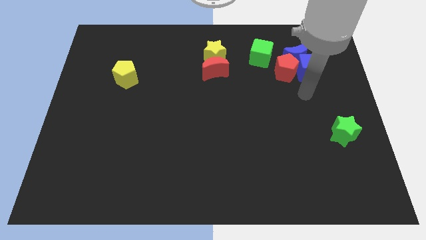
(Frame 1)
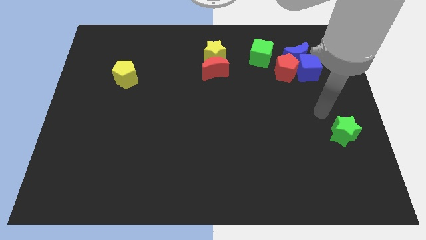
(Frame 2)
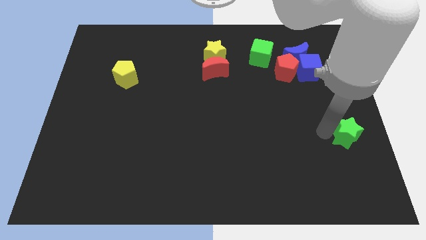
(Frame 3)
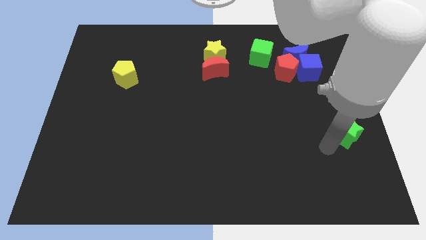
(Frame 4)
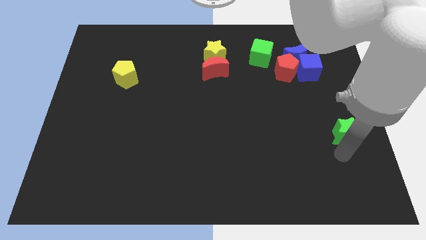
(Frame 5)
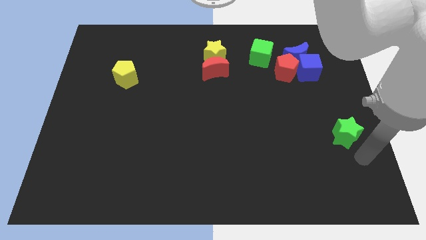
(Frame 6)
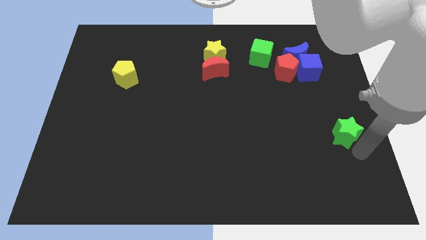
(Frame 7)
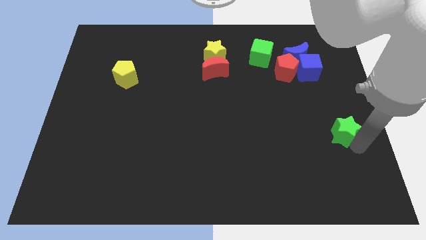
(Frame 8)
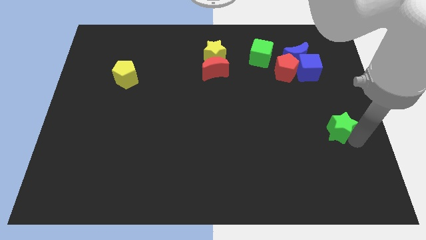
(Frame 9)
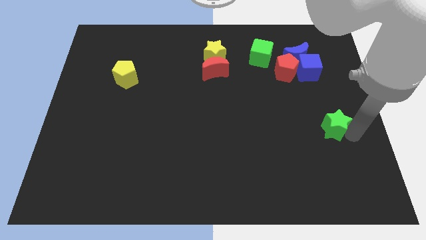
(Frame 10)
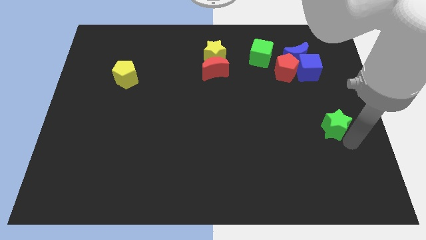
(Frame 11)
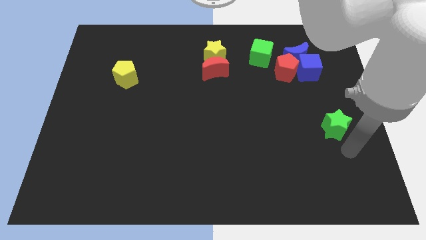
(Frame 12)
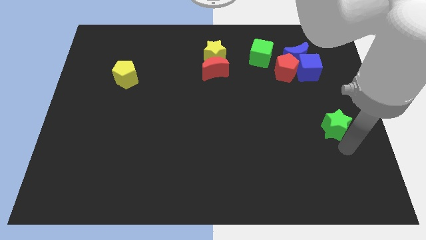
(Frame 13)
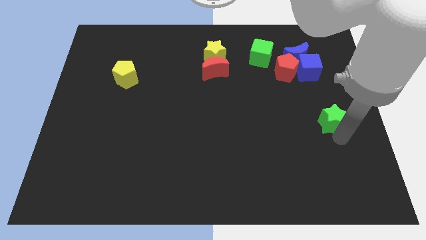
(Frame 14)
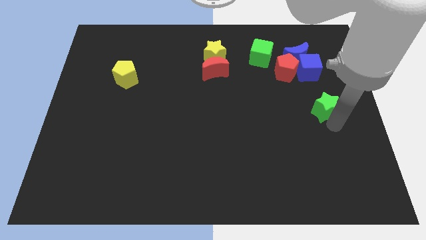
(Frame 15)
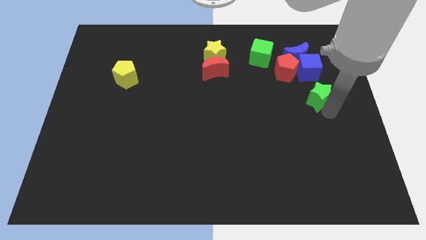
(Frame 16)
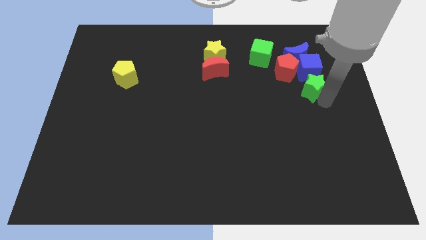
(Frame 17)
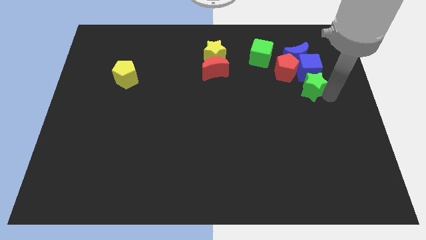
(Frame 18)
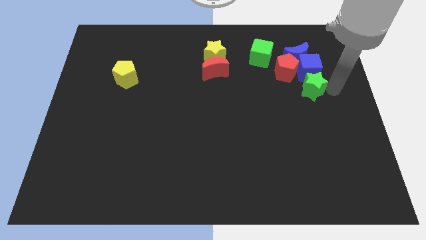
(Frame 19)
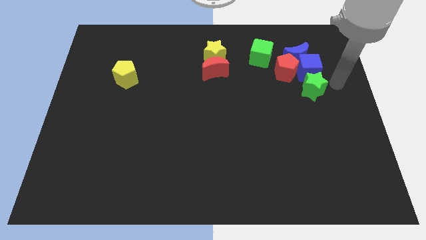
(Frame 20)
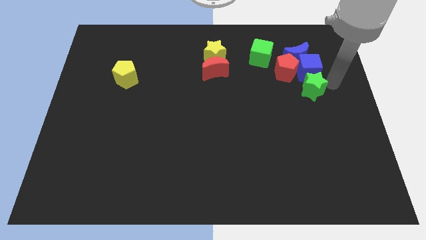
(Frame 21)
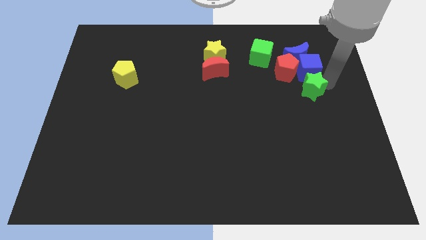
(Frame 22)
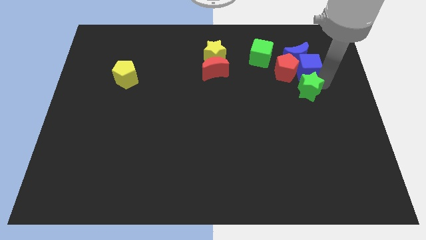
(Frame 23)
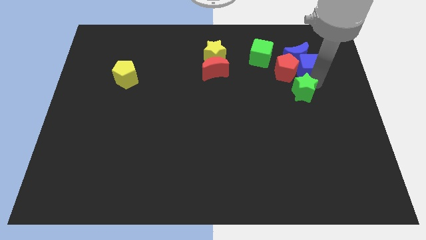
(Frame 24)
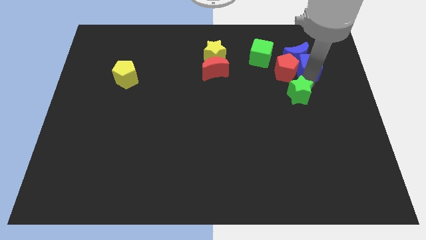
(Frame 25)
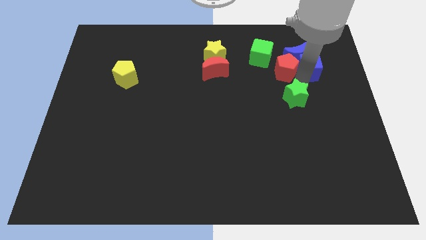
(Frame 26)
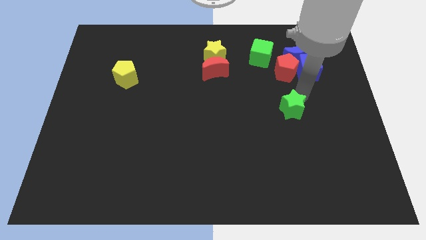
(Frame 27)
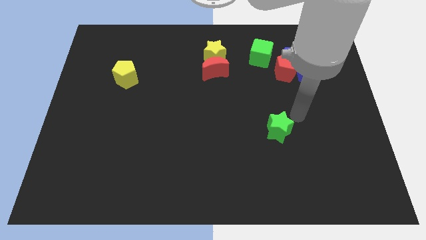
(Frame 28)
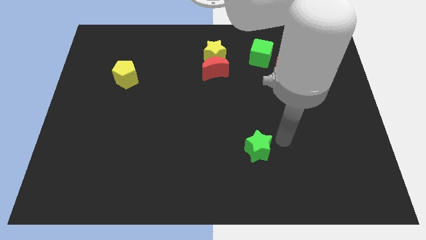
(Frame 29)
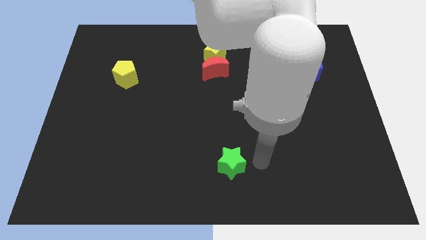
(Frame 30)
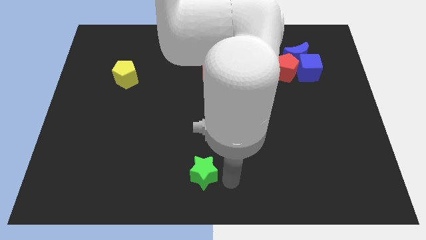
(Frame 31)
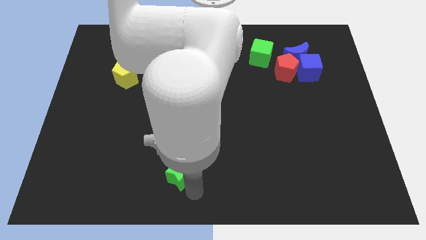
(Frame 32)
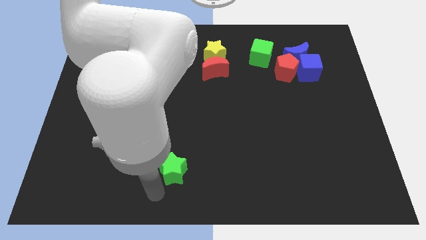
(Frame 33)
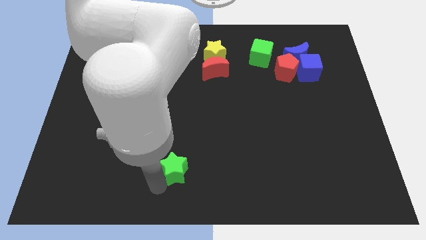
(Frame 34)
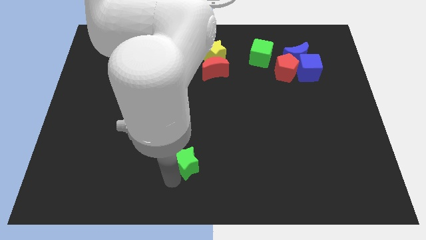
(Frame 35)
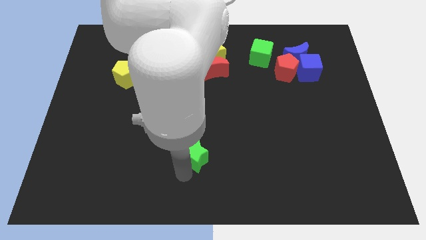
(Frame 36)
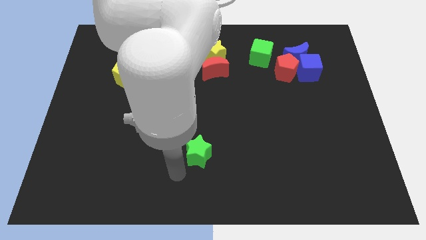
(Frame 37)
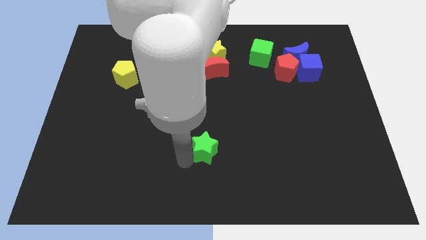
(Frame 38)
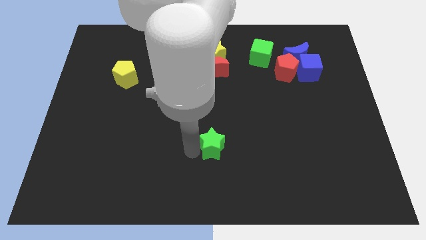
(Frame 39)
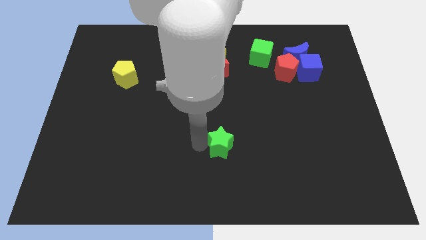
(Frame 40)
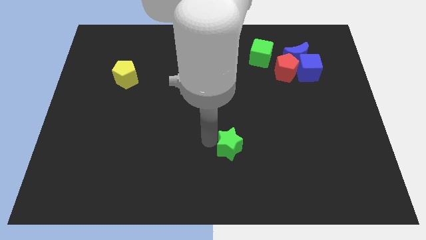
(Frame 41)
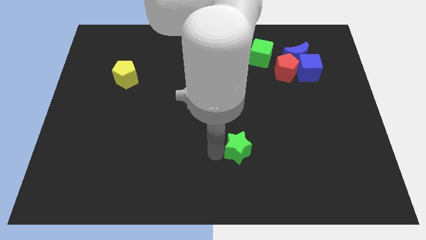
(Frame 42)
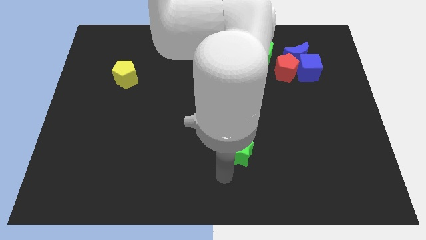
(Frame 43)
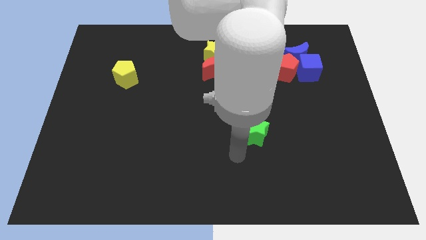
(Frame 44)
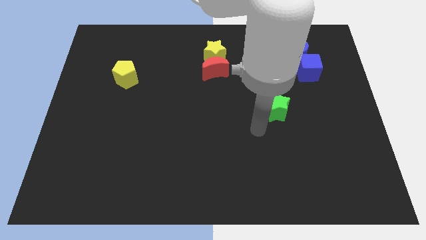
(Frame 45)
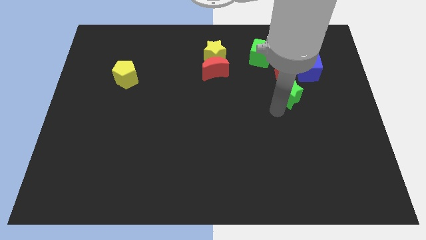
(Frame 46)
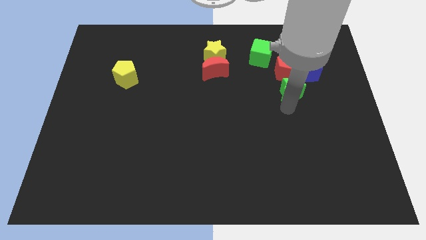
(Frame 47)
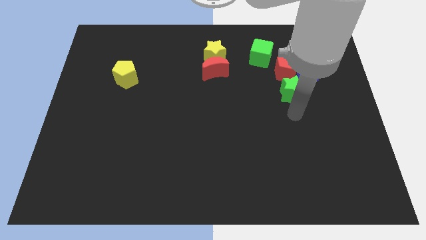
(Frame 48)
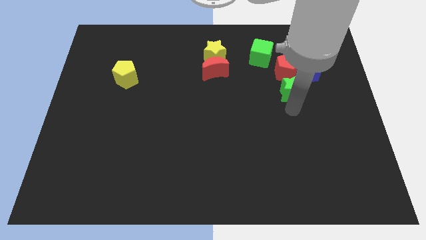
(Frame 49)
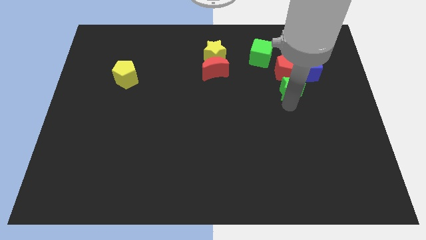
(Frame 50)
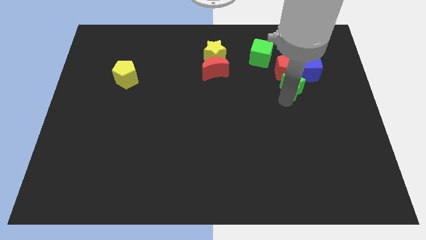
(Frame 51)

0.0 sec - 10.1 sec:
move the green star next to the red pentagon

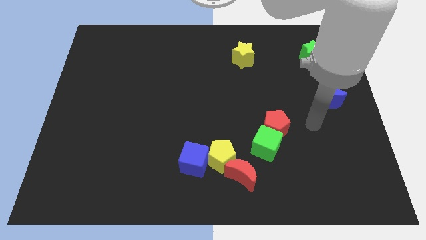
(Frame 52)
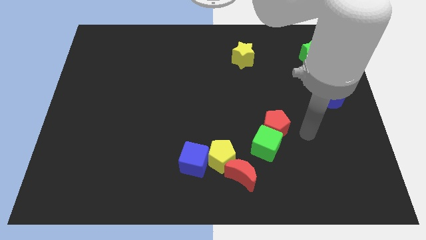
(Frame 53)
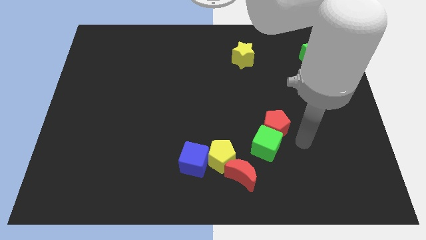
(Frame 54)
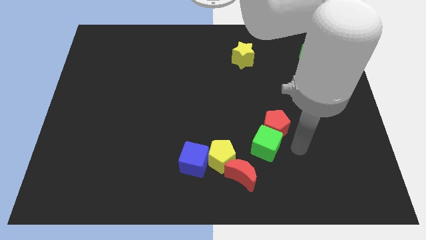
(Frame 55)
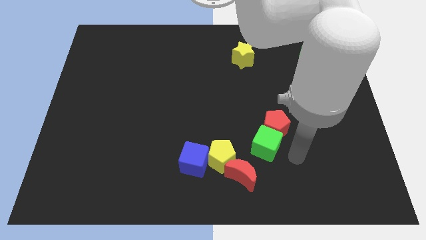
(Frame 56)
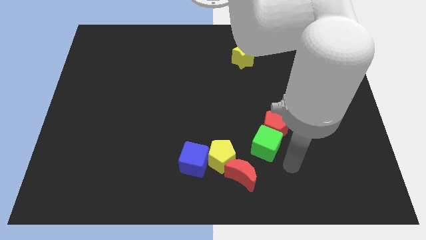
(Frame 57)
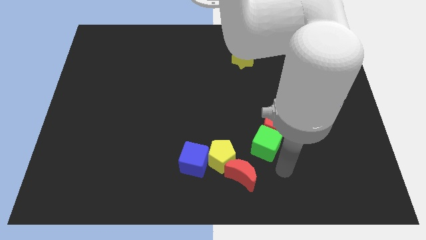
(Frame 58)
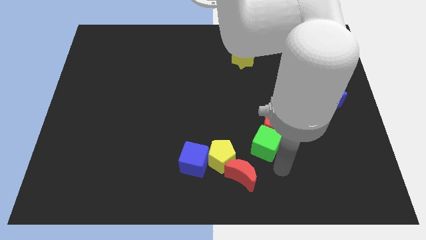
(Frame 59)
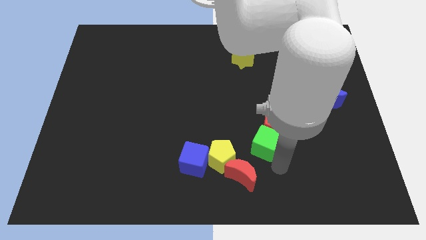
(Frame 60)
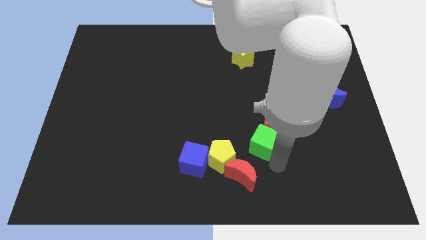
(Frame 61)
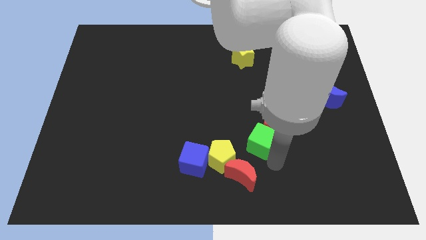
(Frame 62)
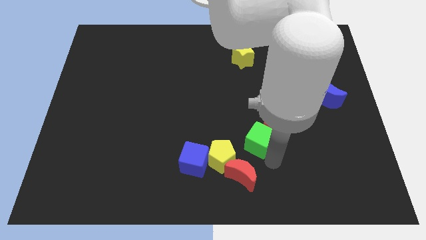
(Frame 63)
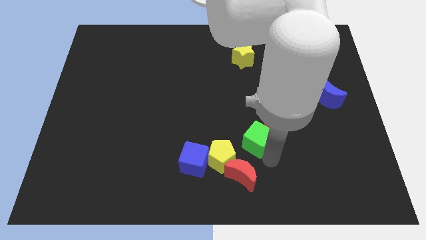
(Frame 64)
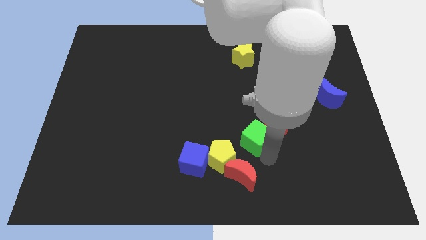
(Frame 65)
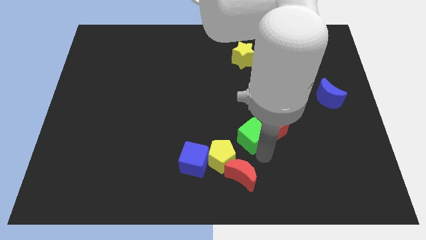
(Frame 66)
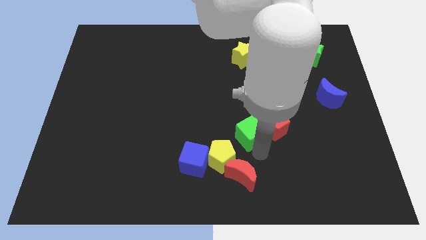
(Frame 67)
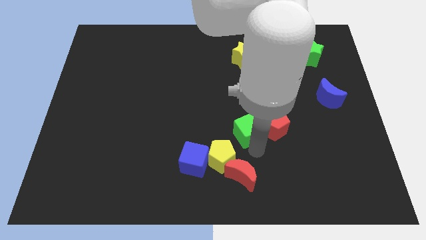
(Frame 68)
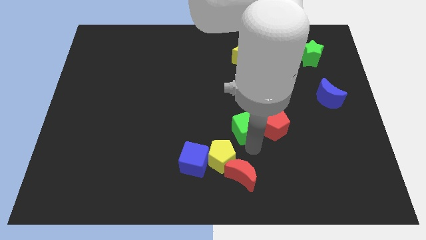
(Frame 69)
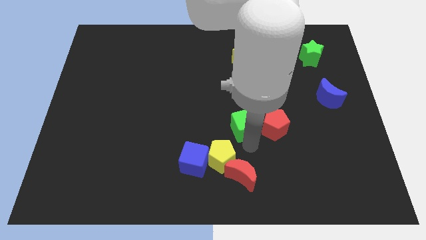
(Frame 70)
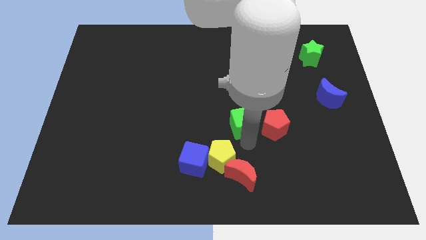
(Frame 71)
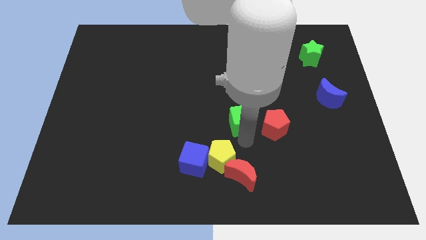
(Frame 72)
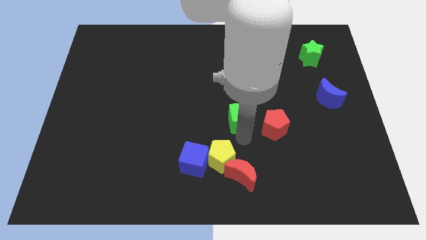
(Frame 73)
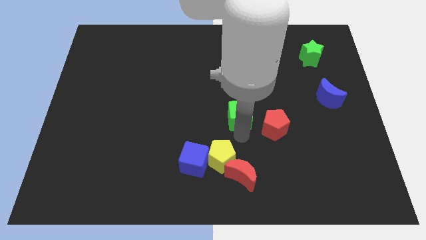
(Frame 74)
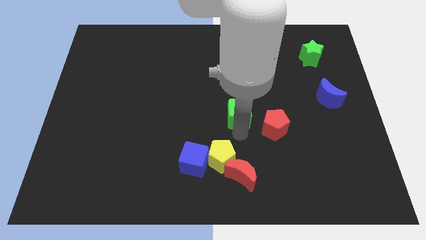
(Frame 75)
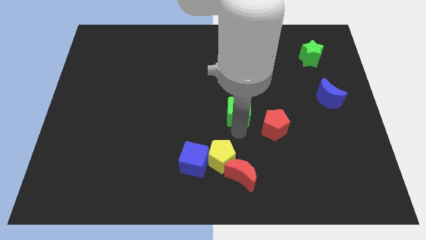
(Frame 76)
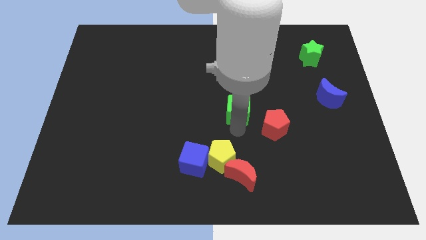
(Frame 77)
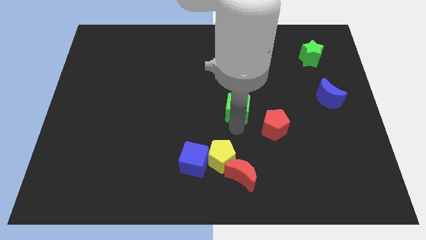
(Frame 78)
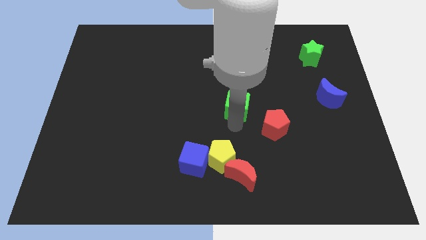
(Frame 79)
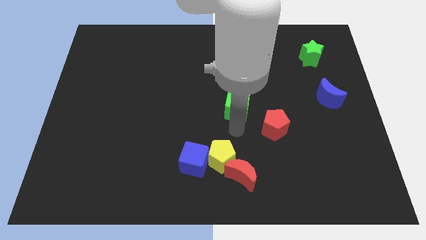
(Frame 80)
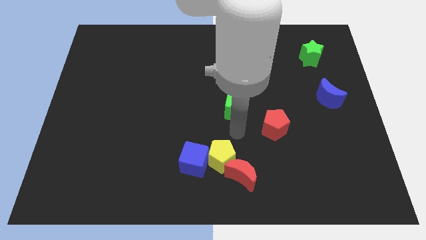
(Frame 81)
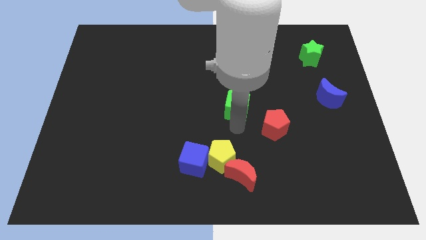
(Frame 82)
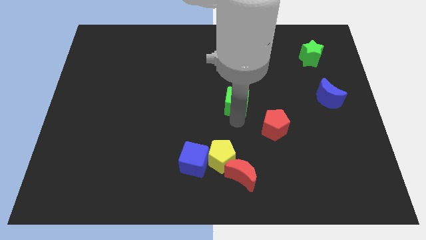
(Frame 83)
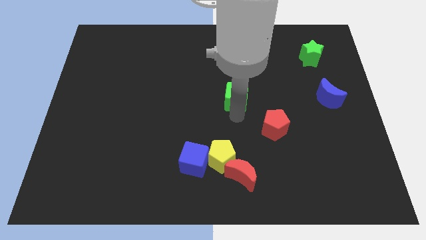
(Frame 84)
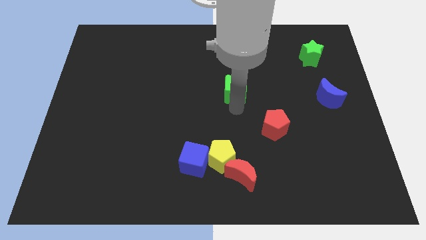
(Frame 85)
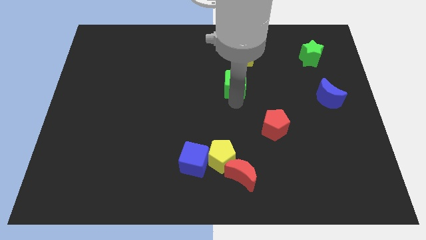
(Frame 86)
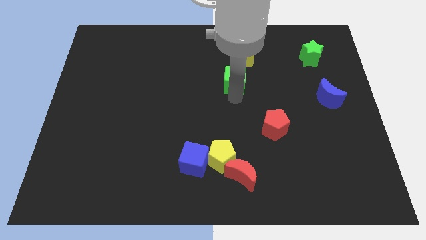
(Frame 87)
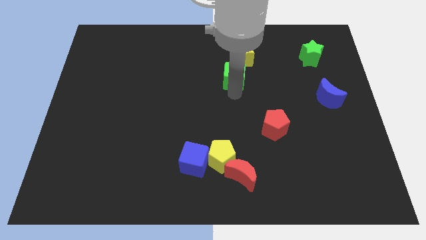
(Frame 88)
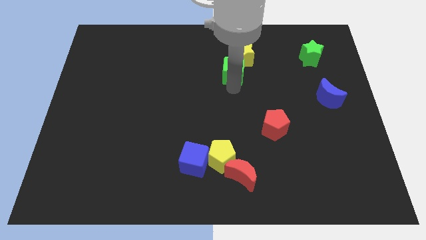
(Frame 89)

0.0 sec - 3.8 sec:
put the green cube next to the yellow star
